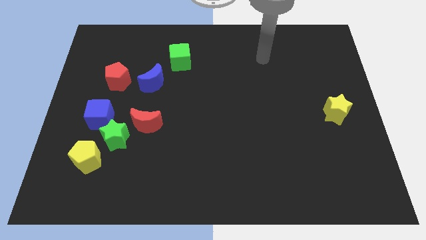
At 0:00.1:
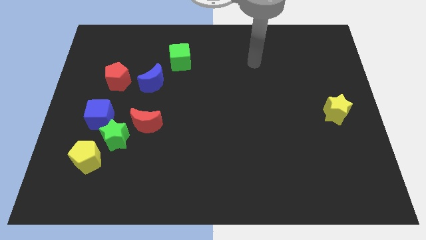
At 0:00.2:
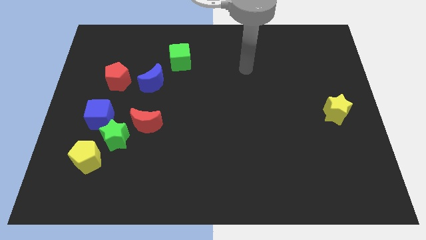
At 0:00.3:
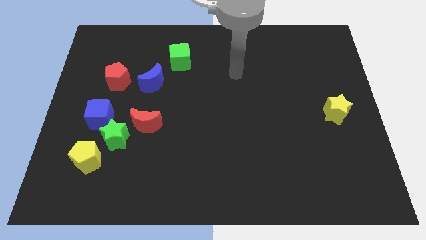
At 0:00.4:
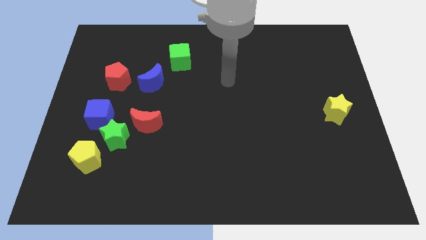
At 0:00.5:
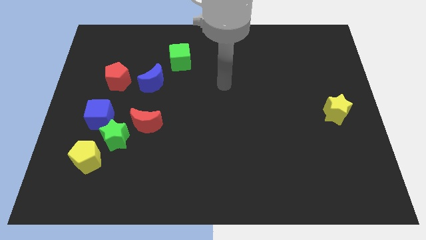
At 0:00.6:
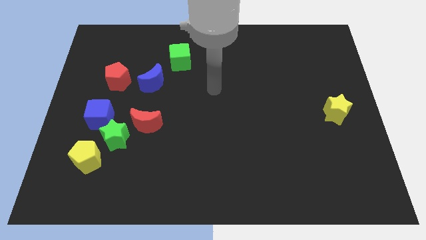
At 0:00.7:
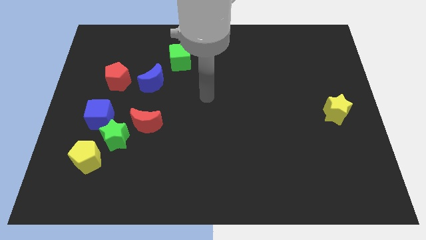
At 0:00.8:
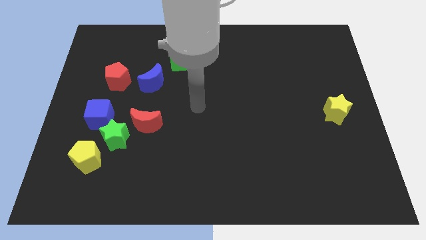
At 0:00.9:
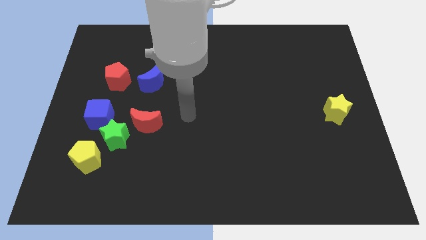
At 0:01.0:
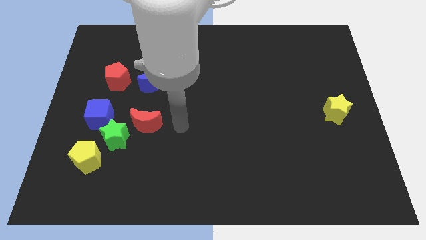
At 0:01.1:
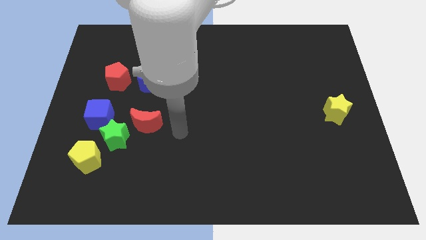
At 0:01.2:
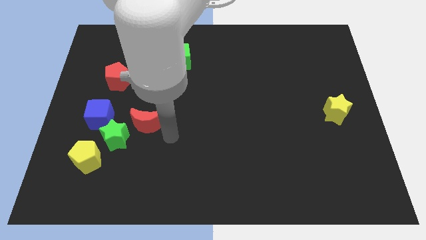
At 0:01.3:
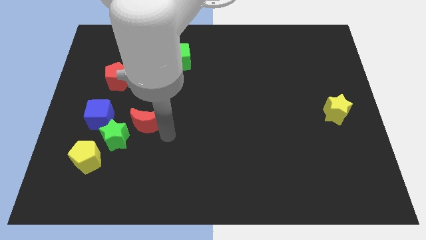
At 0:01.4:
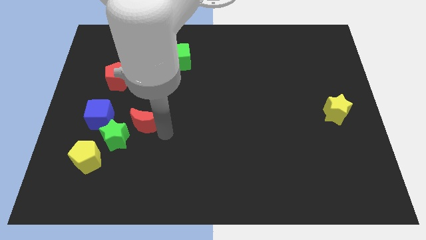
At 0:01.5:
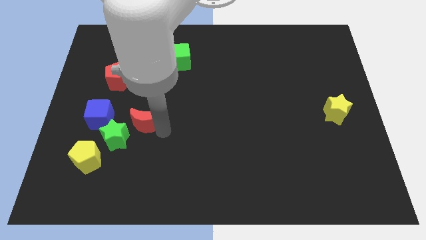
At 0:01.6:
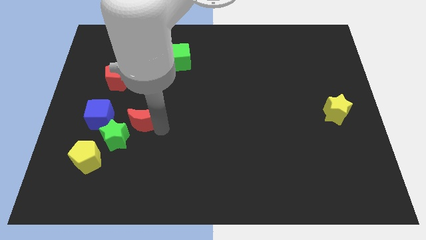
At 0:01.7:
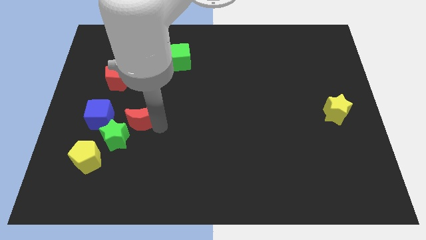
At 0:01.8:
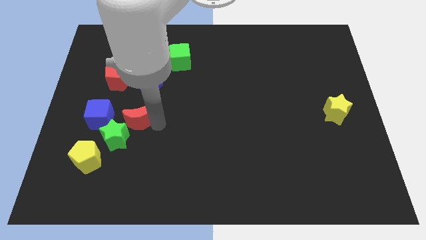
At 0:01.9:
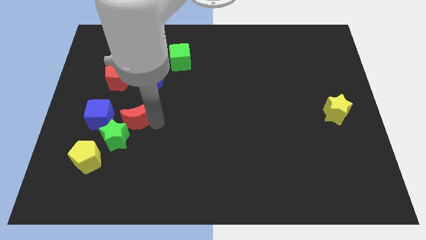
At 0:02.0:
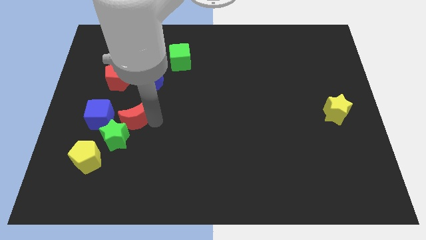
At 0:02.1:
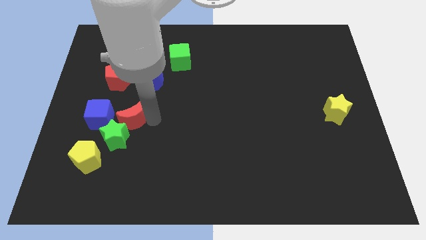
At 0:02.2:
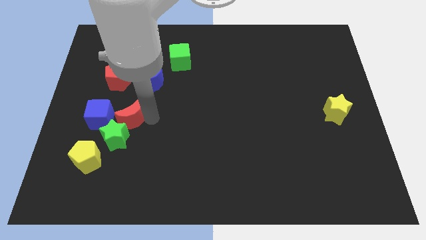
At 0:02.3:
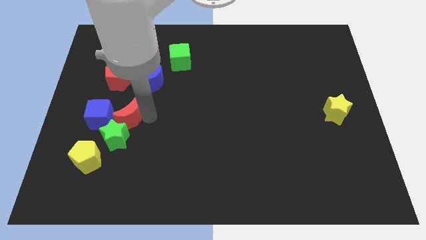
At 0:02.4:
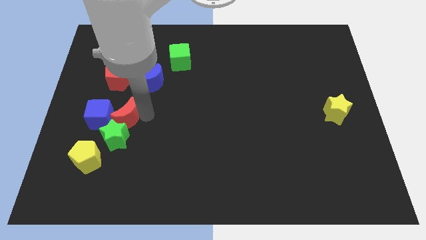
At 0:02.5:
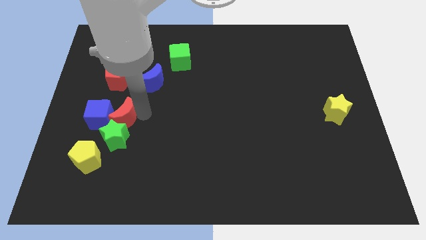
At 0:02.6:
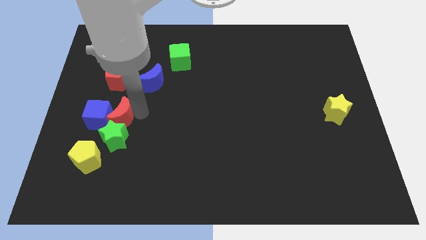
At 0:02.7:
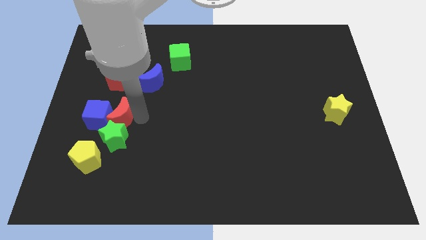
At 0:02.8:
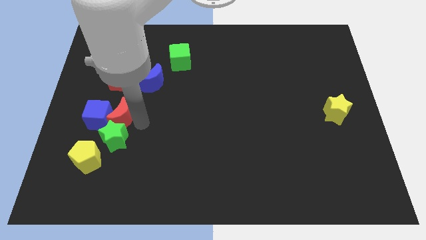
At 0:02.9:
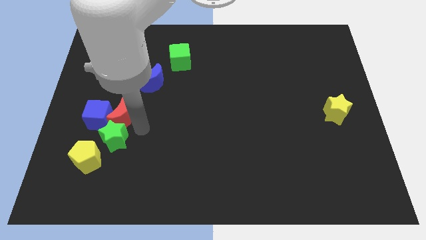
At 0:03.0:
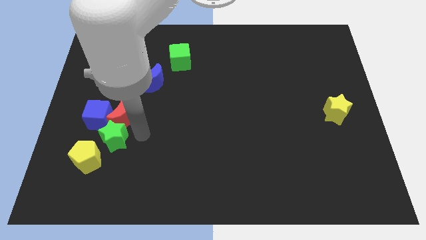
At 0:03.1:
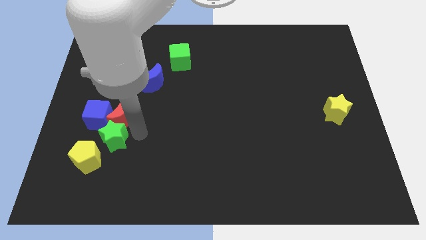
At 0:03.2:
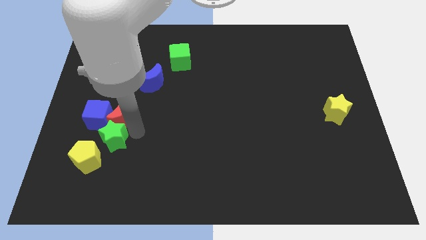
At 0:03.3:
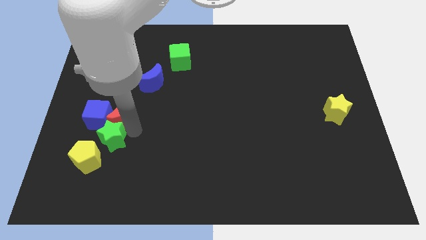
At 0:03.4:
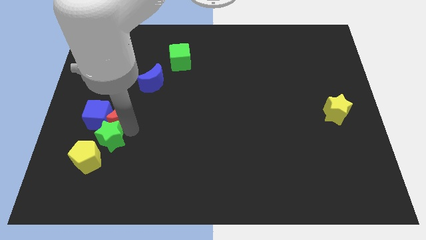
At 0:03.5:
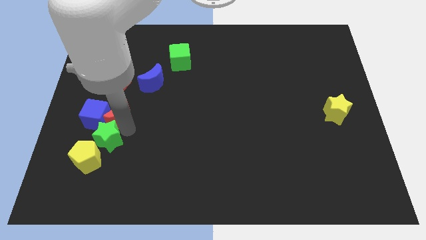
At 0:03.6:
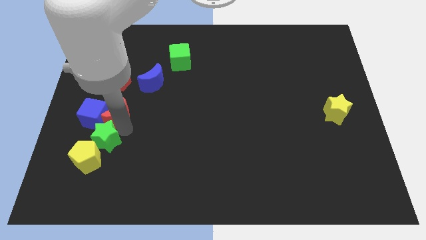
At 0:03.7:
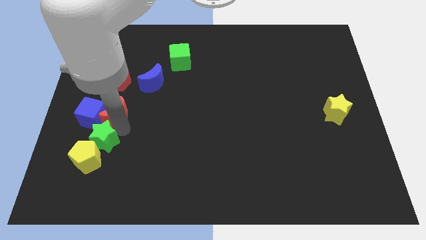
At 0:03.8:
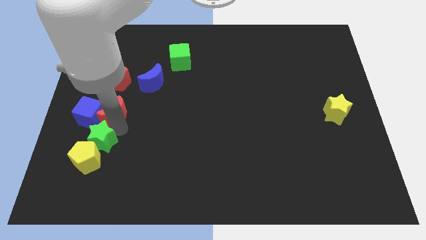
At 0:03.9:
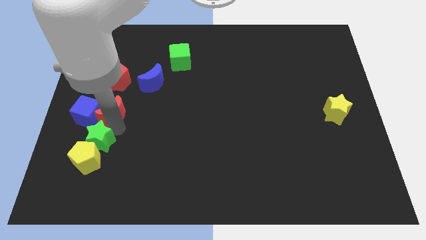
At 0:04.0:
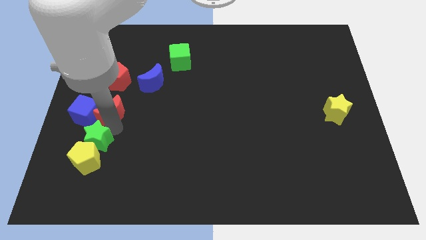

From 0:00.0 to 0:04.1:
slightly slide the red moon diagonally up and left

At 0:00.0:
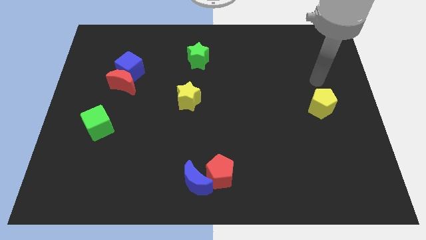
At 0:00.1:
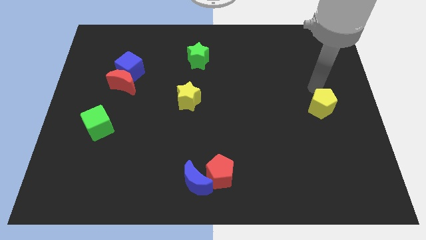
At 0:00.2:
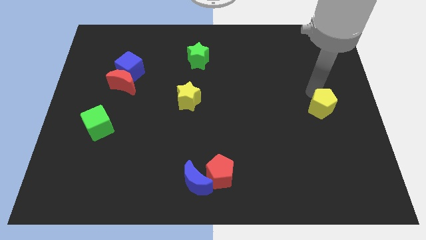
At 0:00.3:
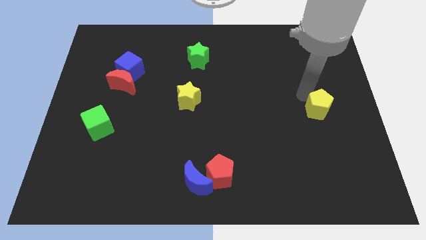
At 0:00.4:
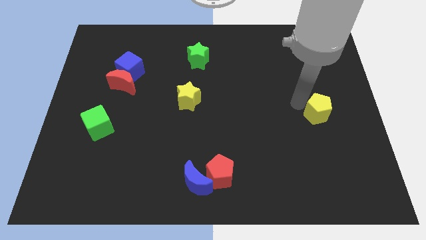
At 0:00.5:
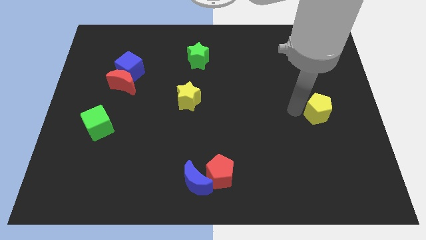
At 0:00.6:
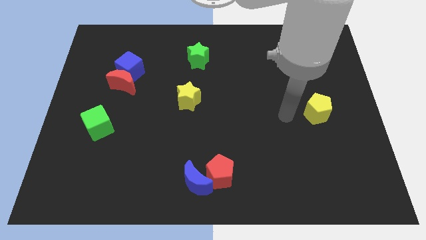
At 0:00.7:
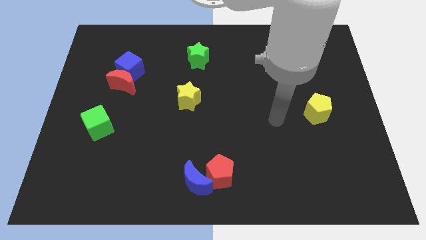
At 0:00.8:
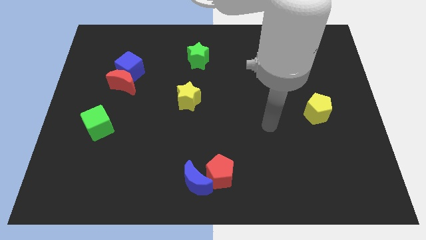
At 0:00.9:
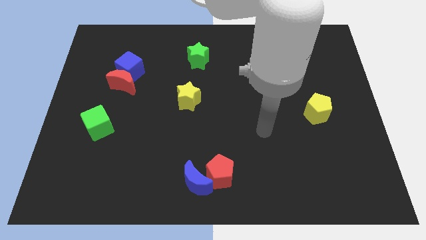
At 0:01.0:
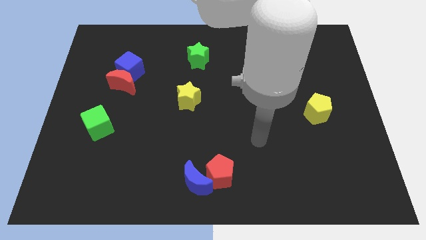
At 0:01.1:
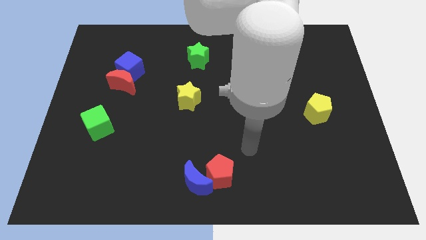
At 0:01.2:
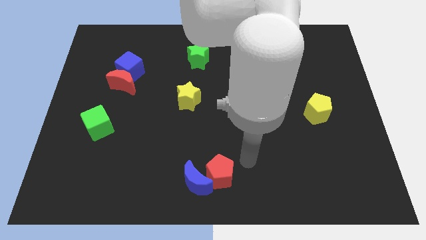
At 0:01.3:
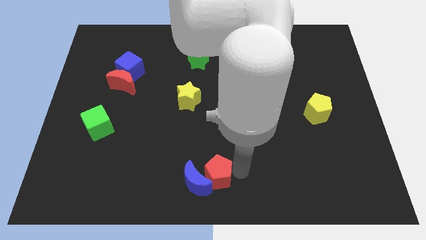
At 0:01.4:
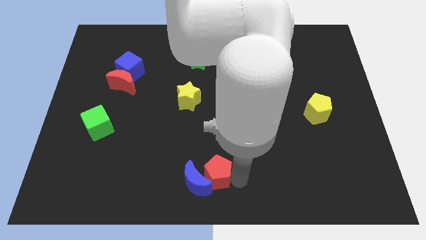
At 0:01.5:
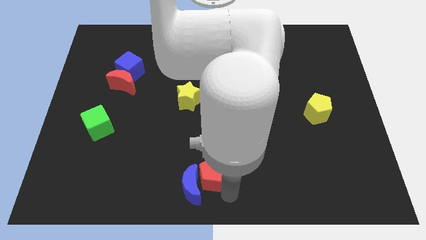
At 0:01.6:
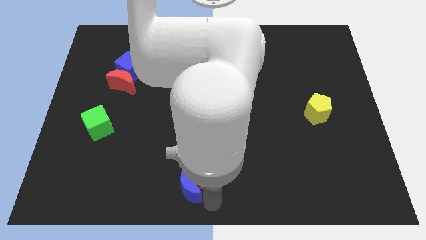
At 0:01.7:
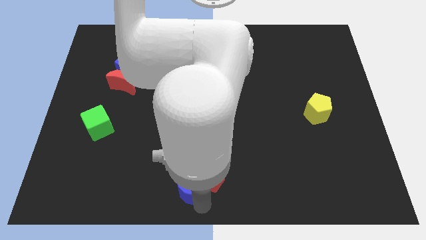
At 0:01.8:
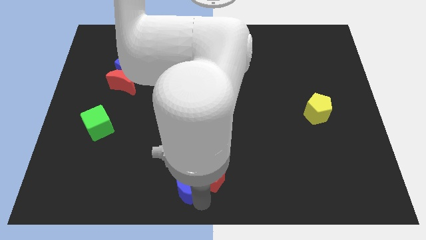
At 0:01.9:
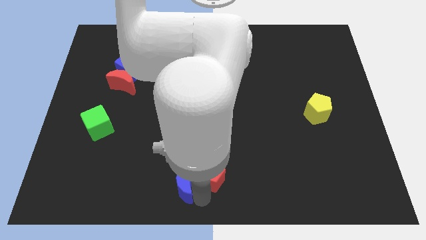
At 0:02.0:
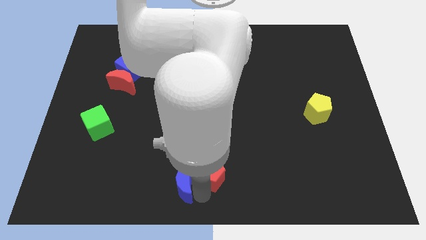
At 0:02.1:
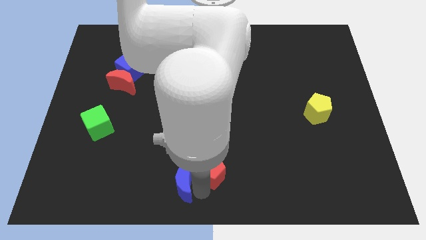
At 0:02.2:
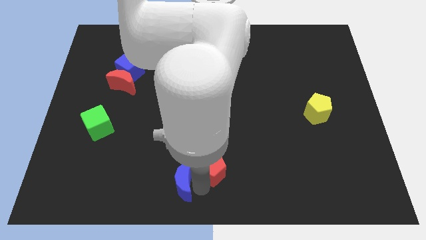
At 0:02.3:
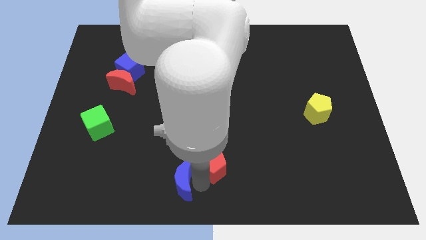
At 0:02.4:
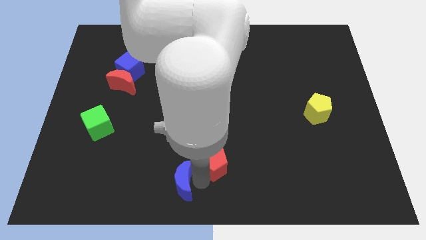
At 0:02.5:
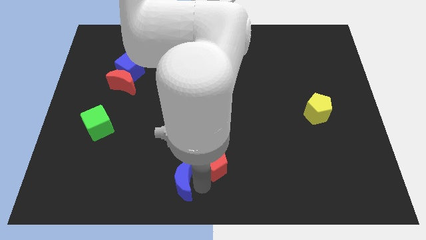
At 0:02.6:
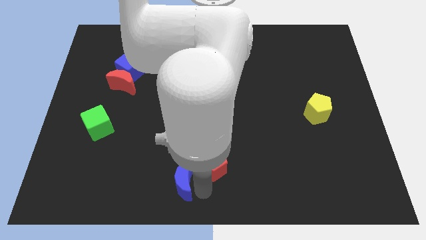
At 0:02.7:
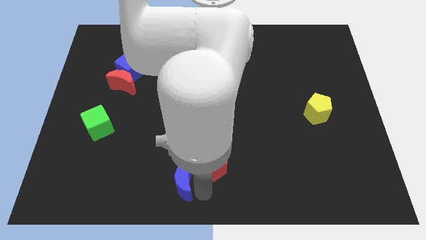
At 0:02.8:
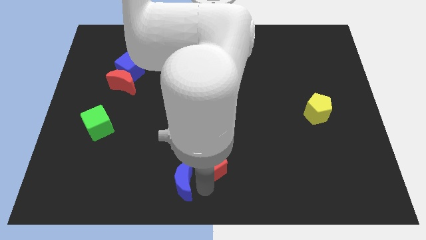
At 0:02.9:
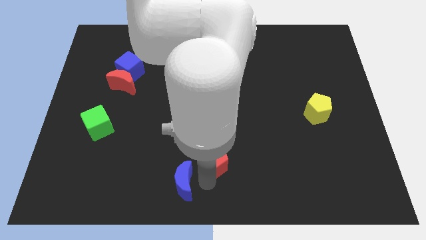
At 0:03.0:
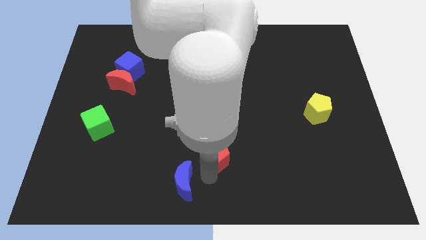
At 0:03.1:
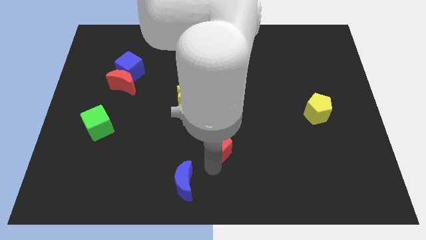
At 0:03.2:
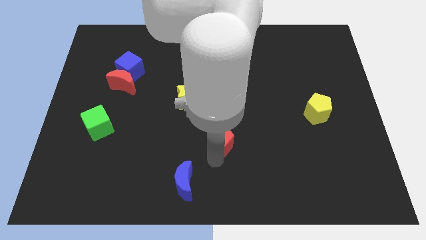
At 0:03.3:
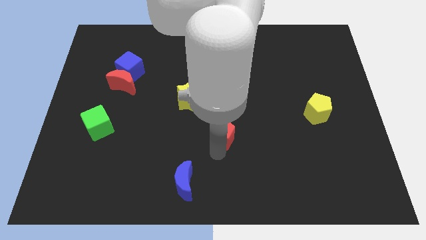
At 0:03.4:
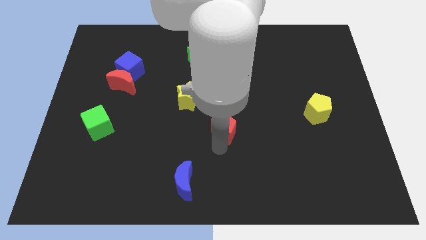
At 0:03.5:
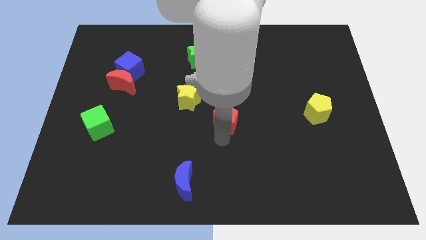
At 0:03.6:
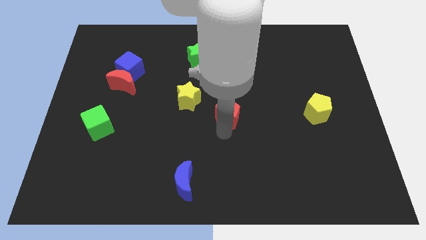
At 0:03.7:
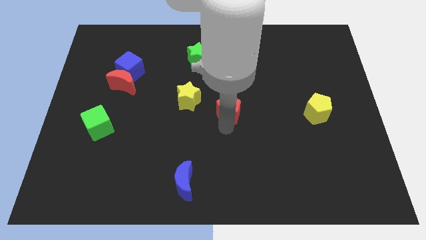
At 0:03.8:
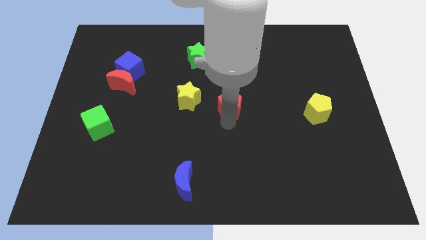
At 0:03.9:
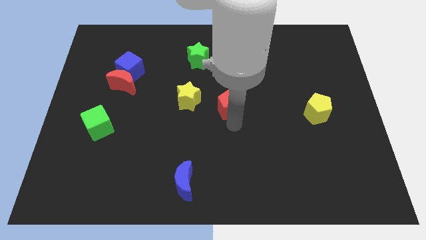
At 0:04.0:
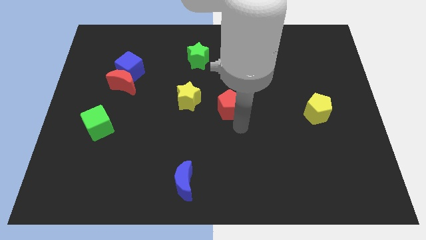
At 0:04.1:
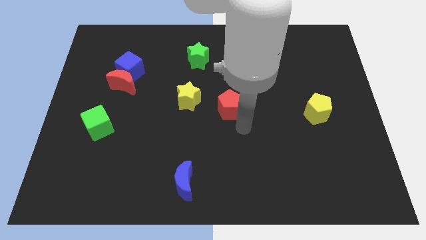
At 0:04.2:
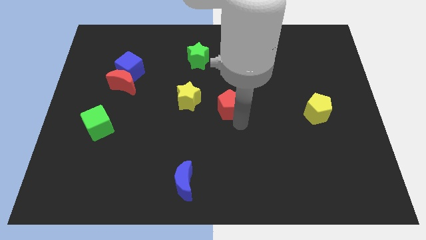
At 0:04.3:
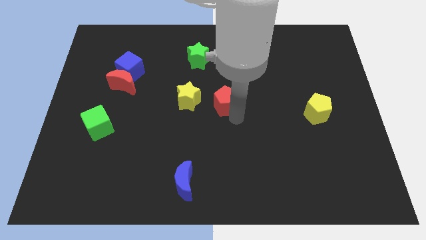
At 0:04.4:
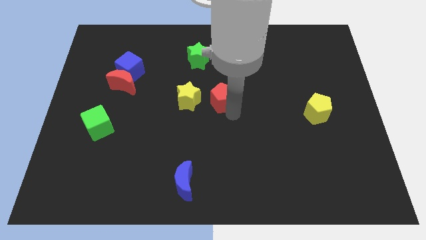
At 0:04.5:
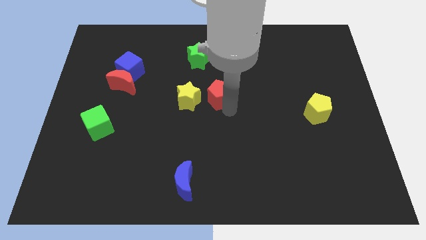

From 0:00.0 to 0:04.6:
push the red pentagon upwards
